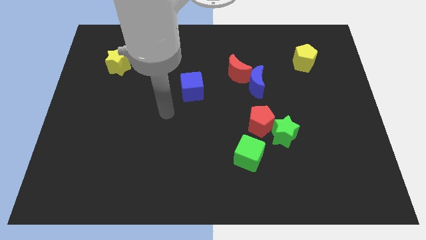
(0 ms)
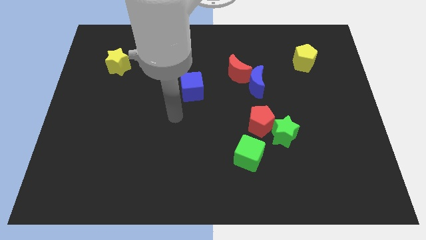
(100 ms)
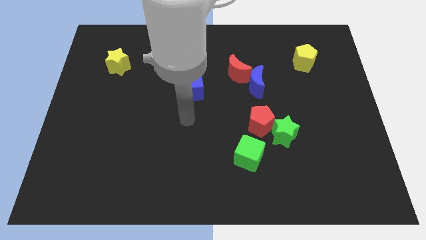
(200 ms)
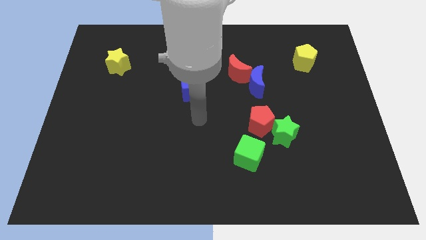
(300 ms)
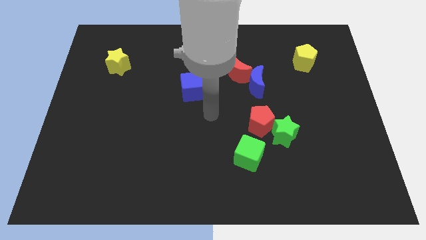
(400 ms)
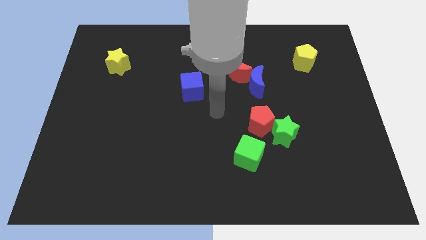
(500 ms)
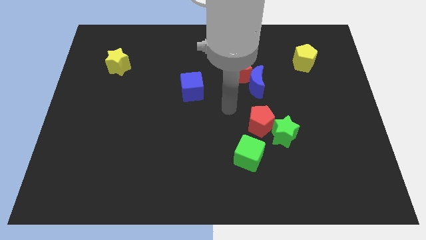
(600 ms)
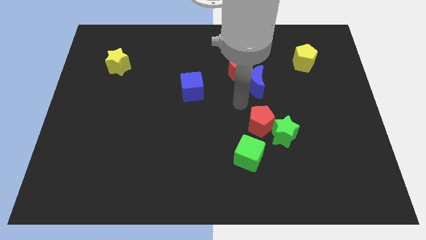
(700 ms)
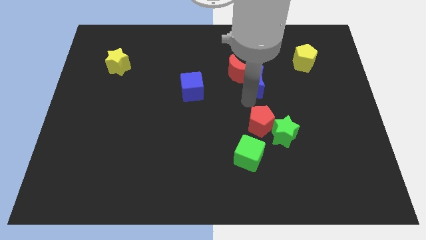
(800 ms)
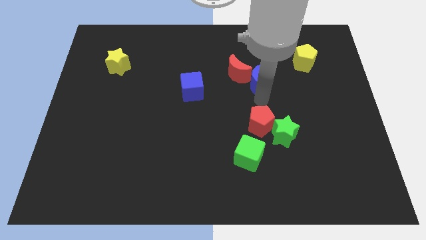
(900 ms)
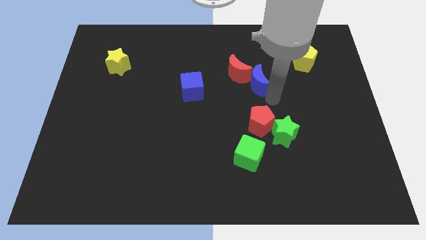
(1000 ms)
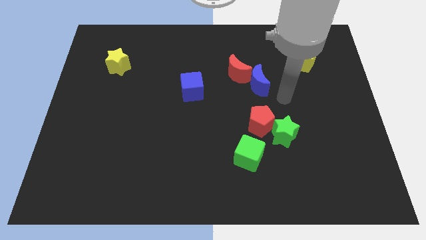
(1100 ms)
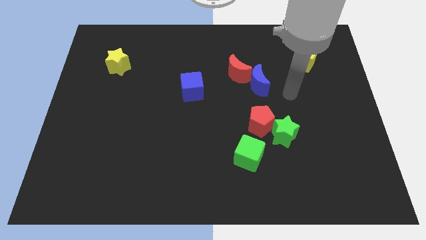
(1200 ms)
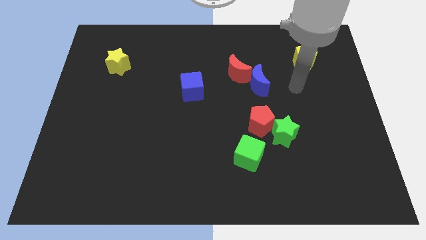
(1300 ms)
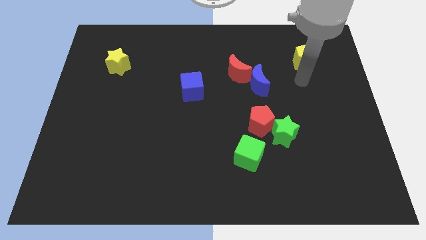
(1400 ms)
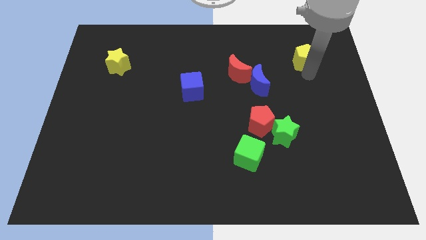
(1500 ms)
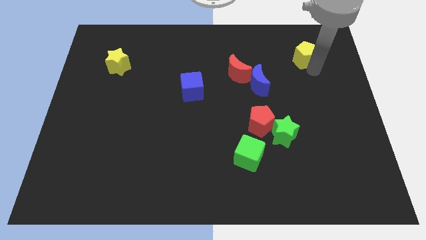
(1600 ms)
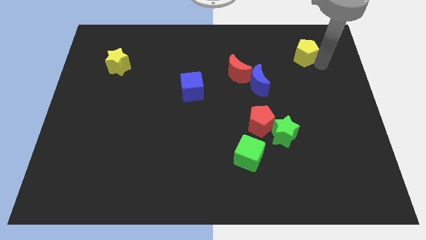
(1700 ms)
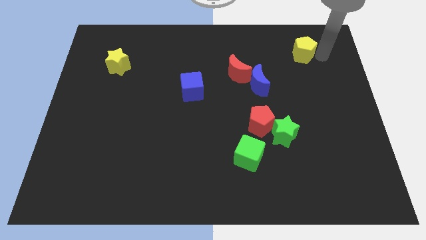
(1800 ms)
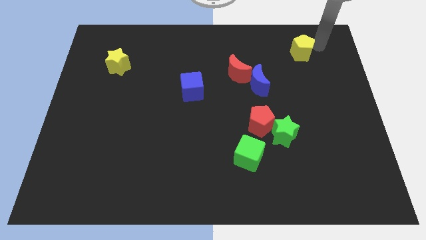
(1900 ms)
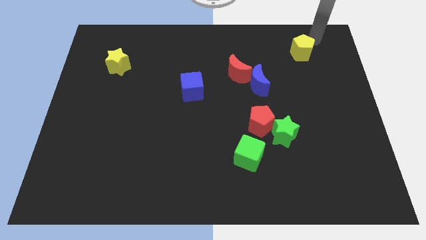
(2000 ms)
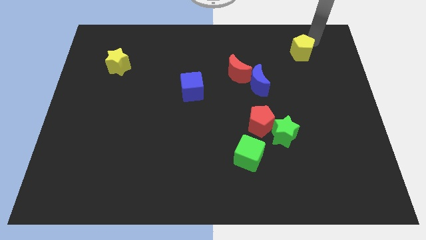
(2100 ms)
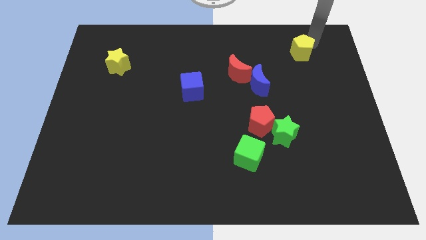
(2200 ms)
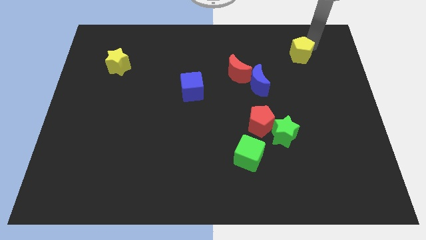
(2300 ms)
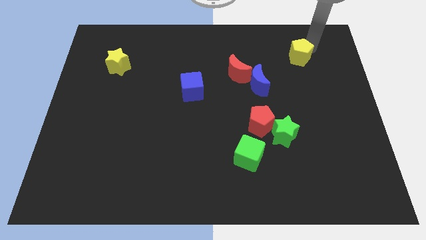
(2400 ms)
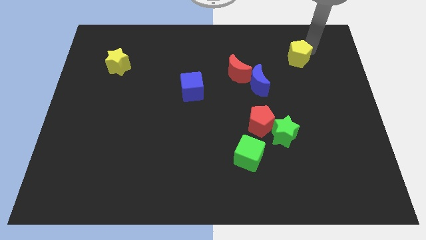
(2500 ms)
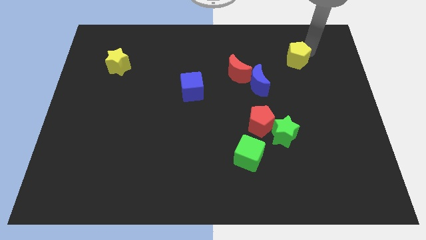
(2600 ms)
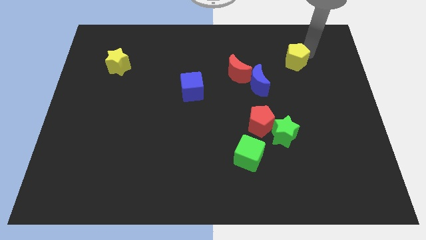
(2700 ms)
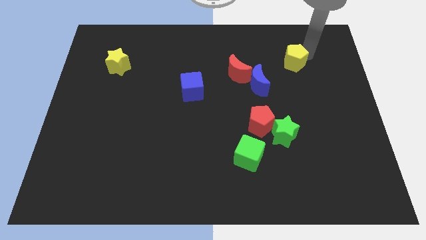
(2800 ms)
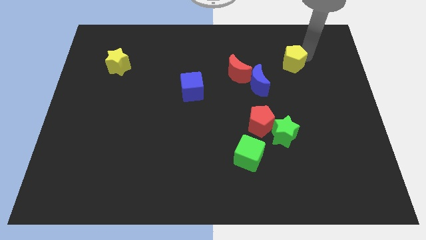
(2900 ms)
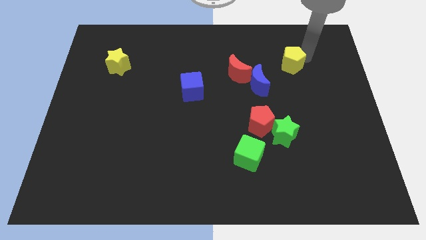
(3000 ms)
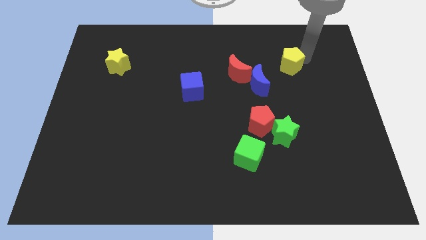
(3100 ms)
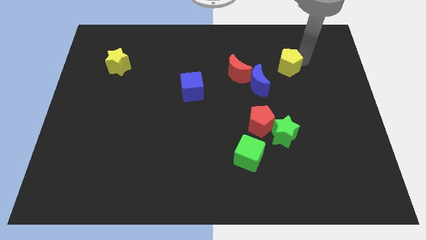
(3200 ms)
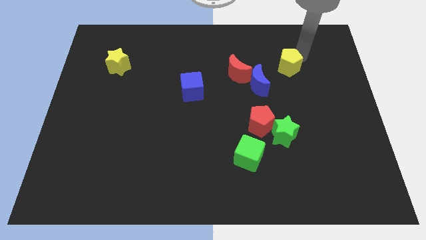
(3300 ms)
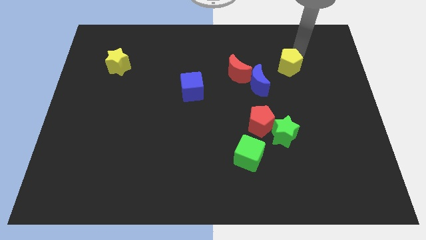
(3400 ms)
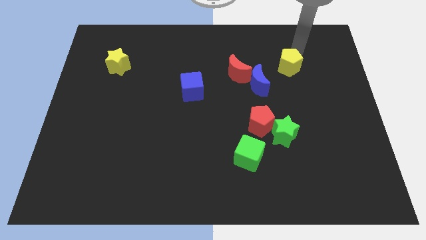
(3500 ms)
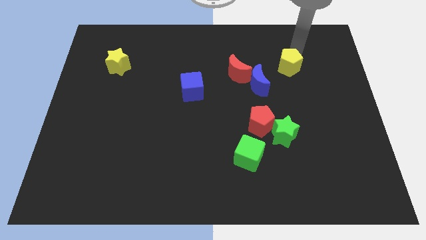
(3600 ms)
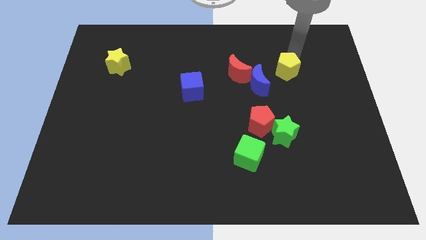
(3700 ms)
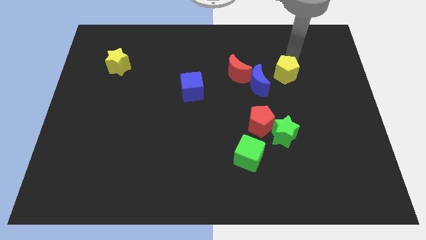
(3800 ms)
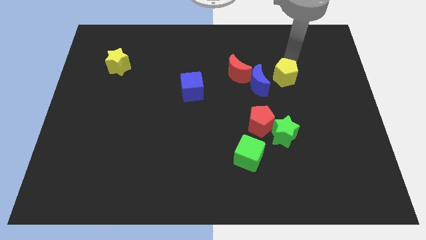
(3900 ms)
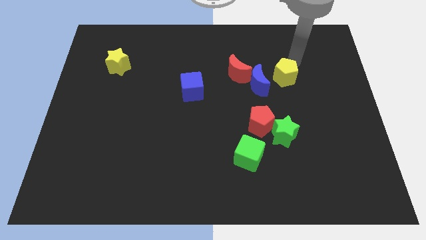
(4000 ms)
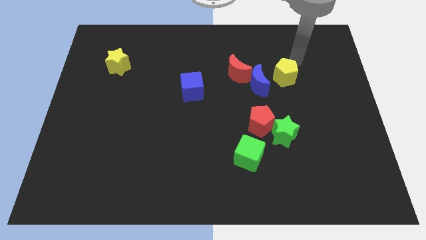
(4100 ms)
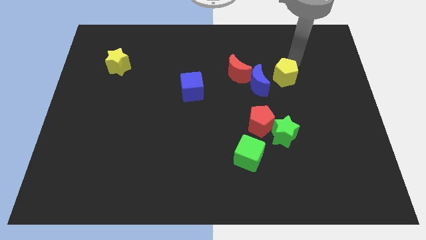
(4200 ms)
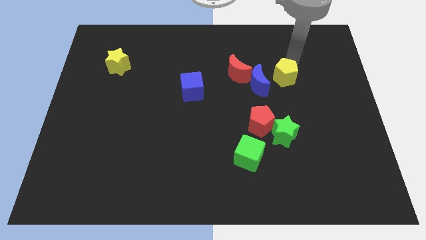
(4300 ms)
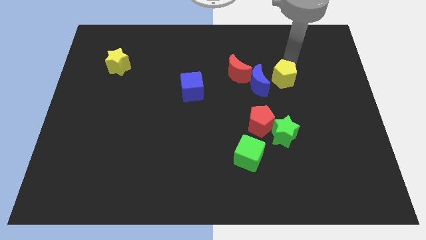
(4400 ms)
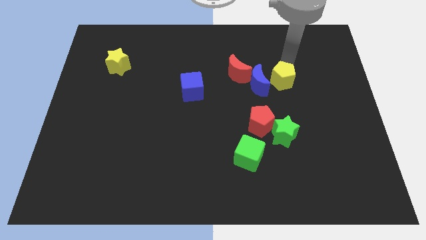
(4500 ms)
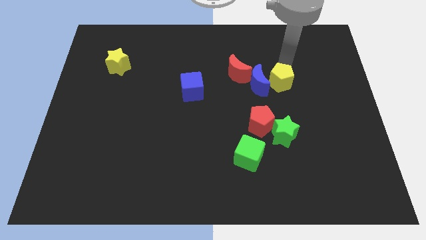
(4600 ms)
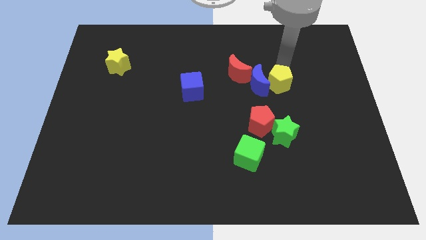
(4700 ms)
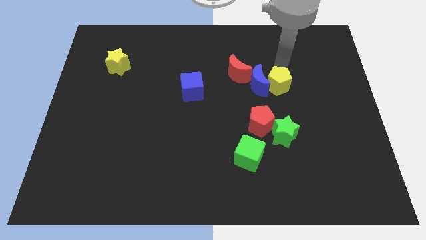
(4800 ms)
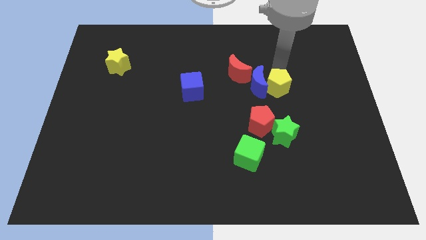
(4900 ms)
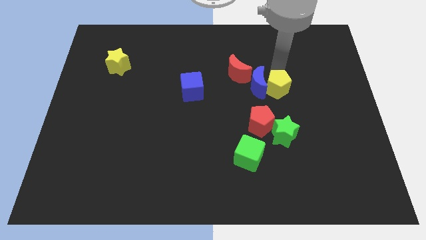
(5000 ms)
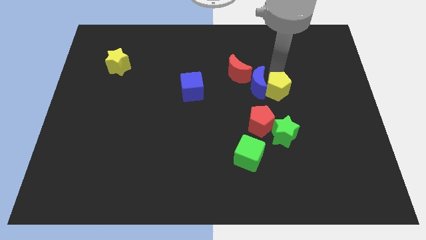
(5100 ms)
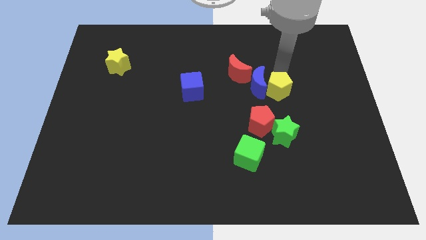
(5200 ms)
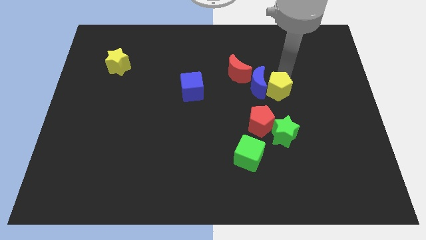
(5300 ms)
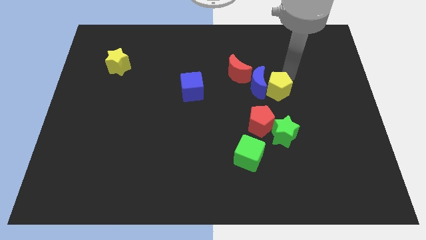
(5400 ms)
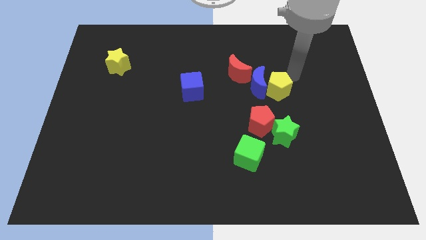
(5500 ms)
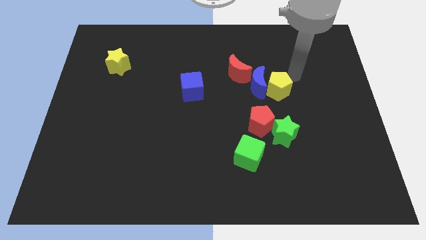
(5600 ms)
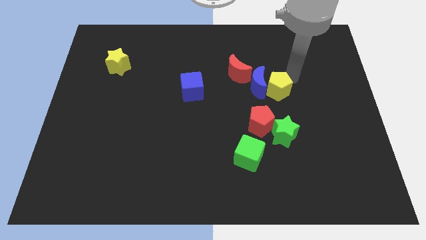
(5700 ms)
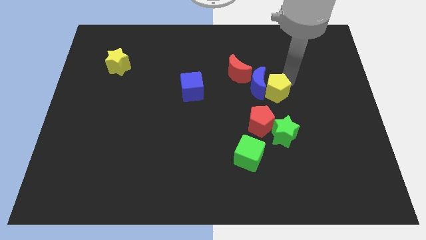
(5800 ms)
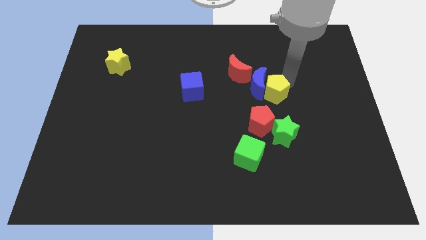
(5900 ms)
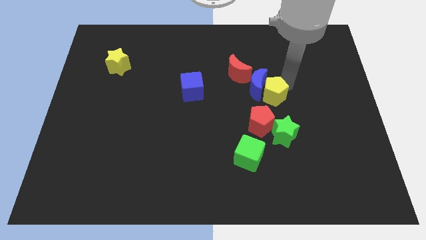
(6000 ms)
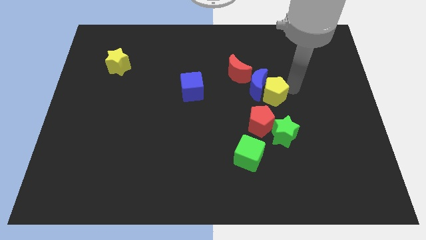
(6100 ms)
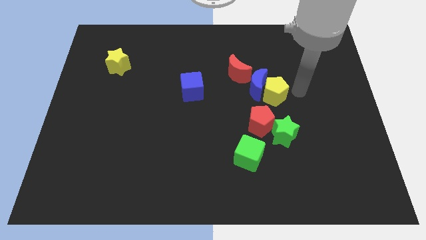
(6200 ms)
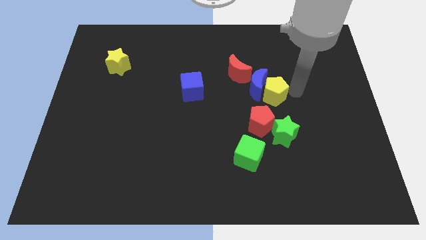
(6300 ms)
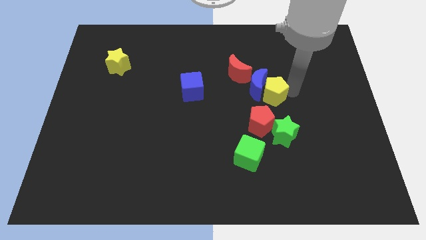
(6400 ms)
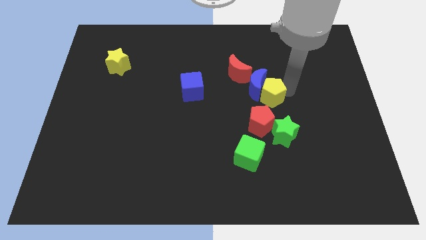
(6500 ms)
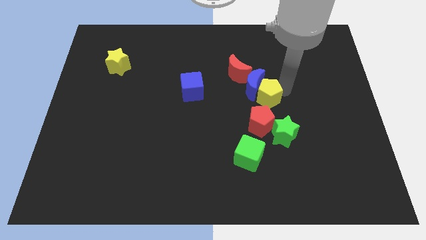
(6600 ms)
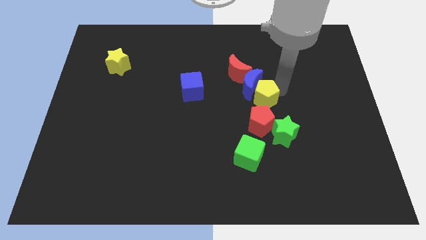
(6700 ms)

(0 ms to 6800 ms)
move the yellow pentagon to the middle
